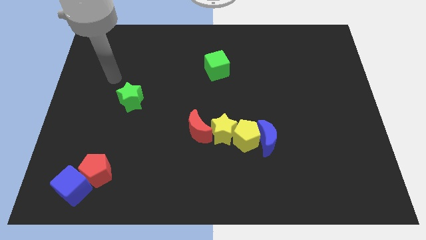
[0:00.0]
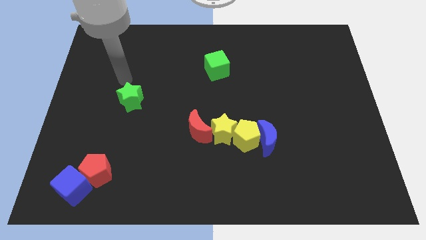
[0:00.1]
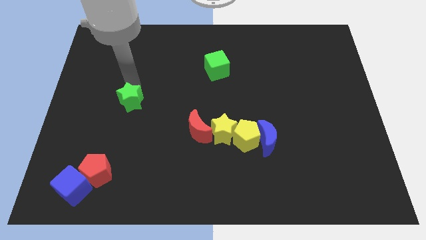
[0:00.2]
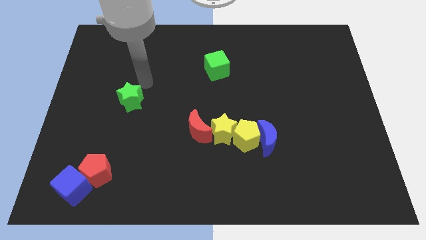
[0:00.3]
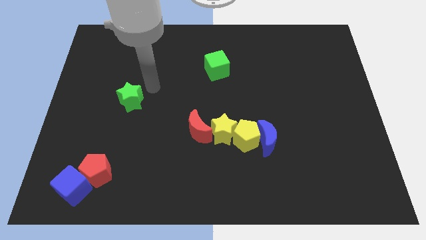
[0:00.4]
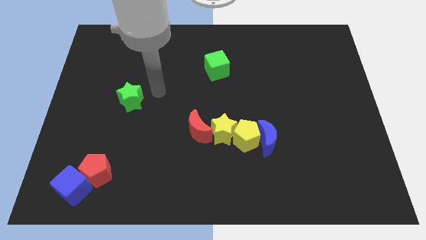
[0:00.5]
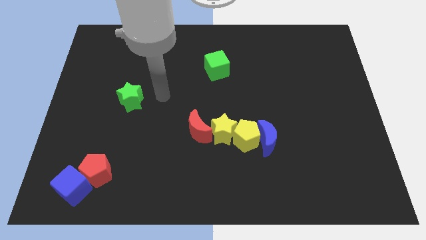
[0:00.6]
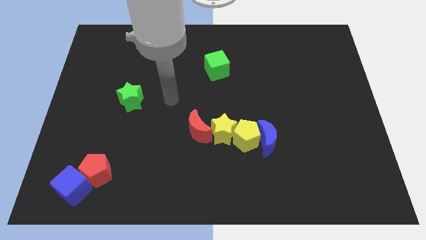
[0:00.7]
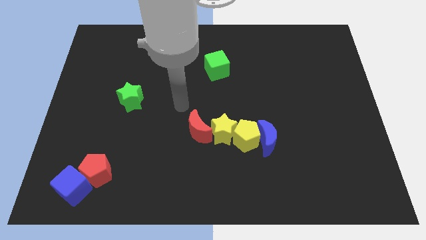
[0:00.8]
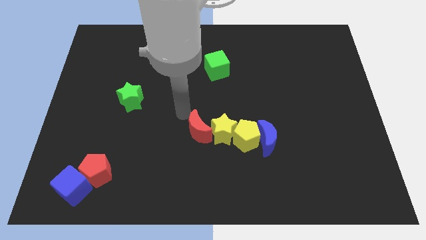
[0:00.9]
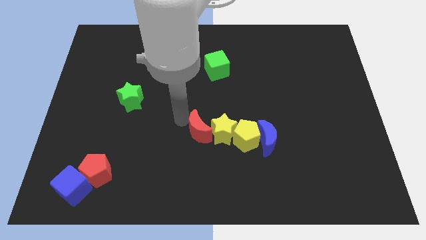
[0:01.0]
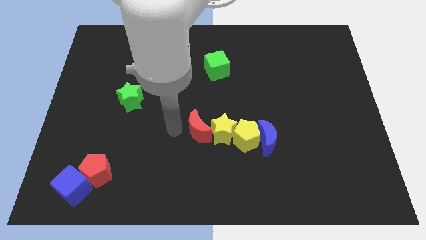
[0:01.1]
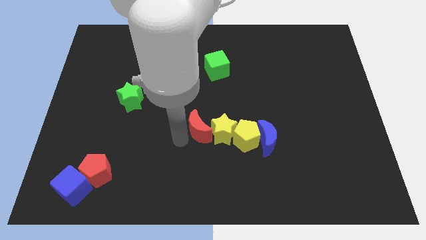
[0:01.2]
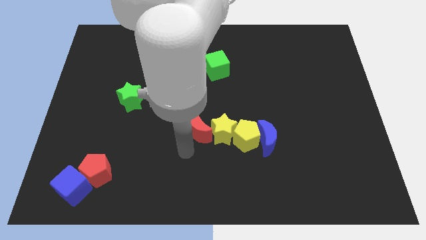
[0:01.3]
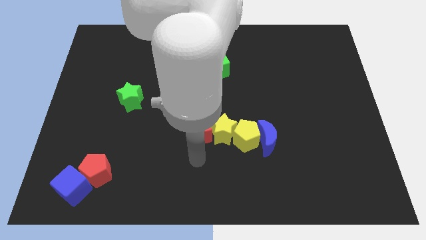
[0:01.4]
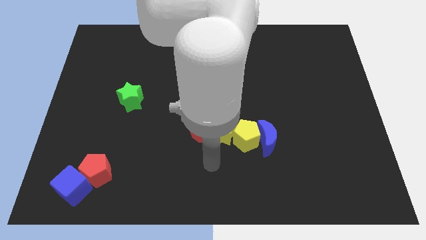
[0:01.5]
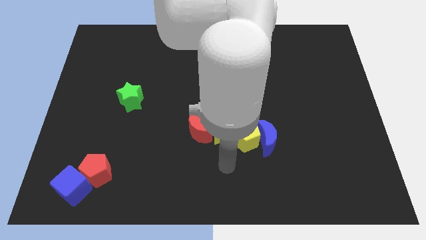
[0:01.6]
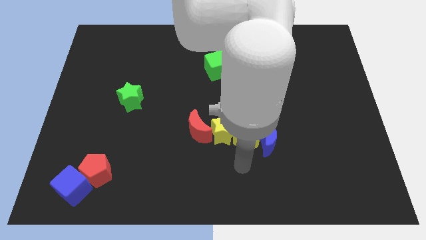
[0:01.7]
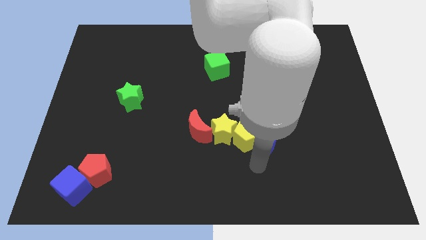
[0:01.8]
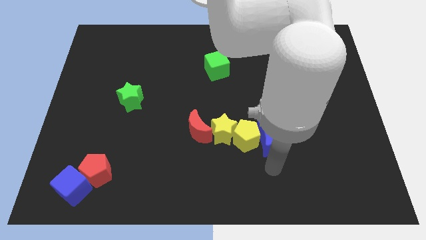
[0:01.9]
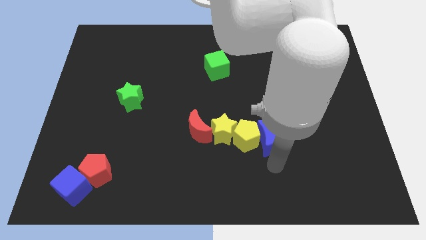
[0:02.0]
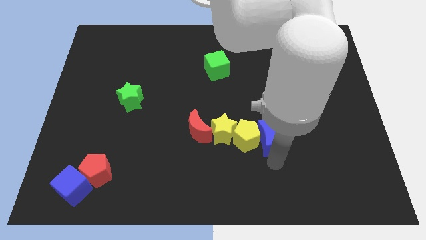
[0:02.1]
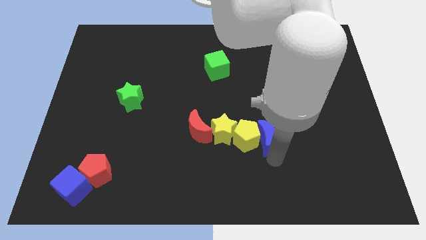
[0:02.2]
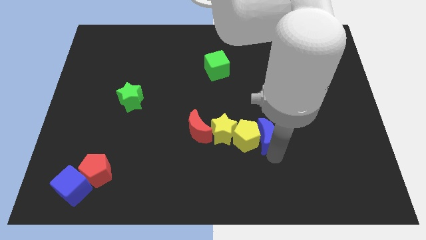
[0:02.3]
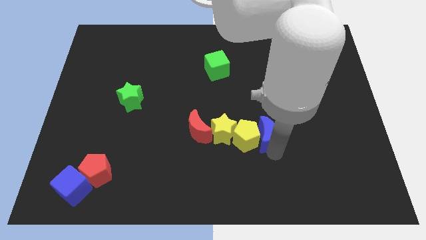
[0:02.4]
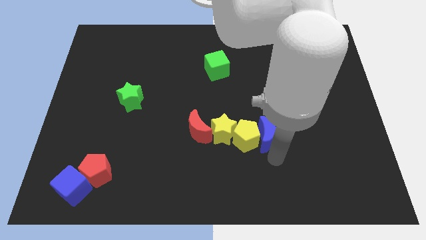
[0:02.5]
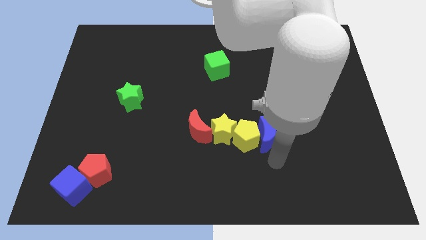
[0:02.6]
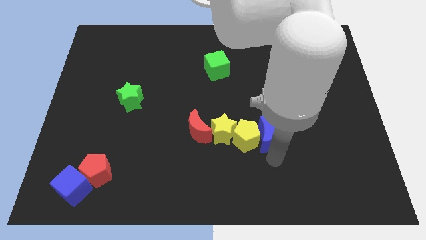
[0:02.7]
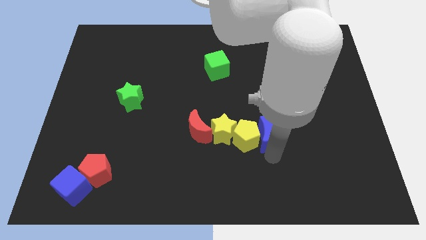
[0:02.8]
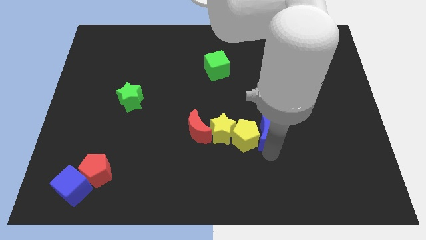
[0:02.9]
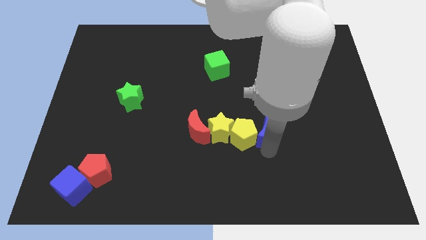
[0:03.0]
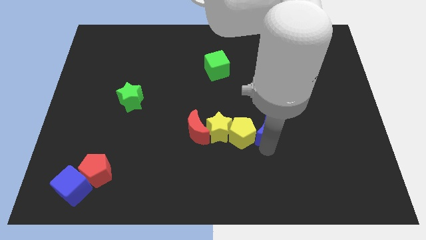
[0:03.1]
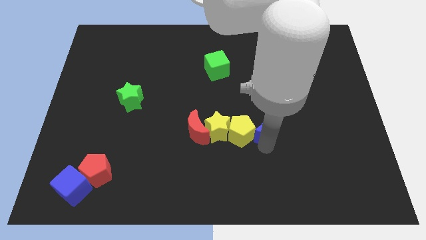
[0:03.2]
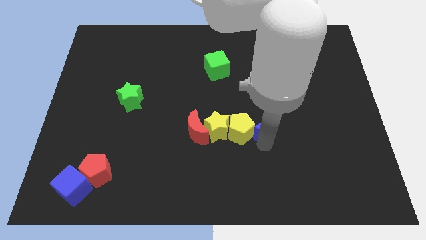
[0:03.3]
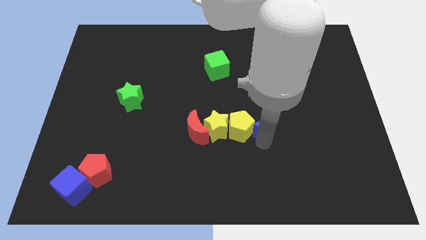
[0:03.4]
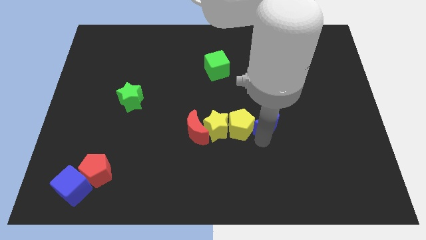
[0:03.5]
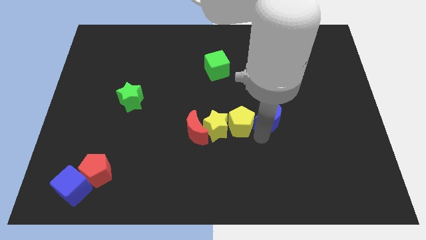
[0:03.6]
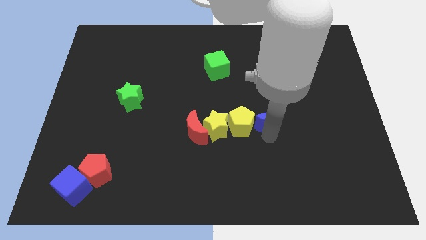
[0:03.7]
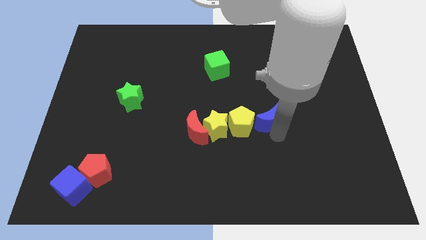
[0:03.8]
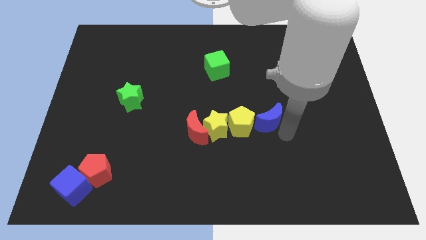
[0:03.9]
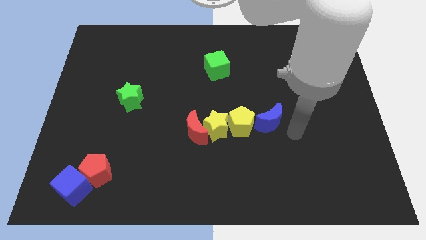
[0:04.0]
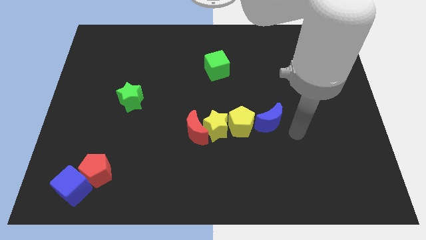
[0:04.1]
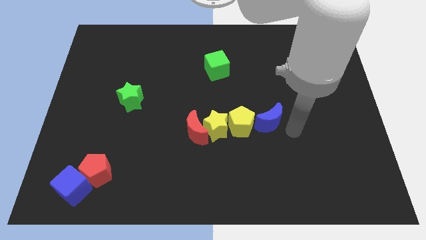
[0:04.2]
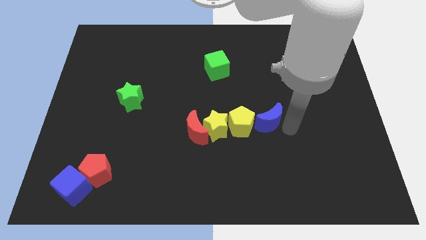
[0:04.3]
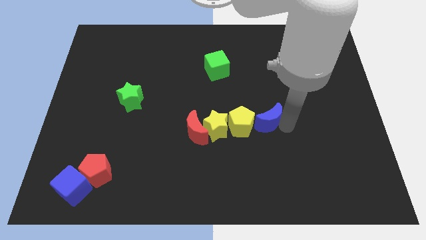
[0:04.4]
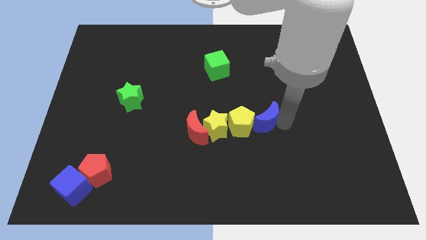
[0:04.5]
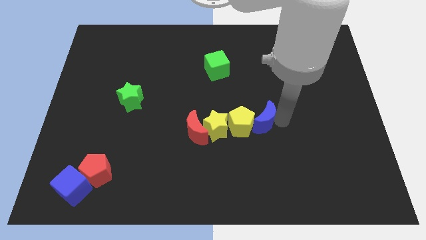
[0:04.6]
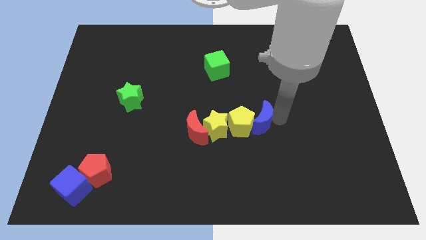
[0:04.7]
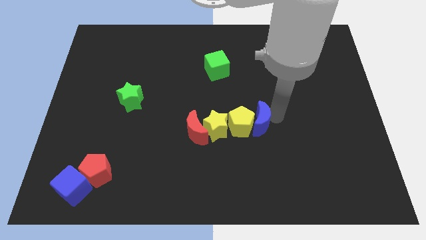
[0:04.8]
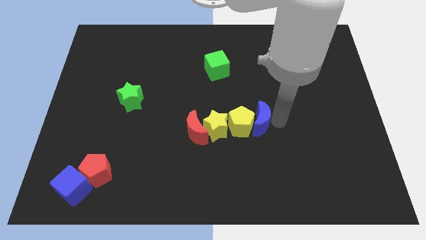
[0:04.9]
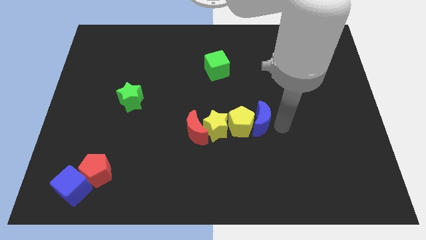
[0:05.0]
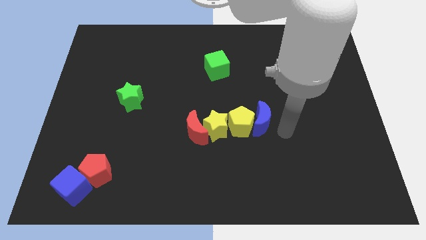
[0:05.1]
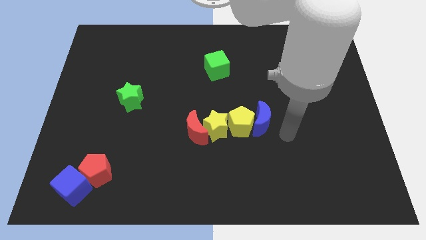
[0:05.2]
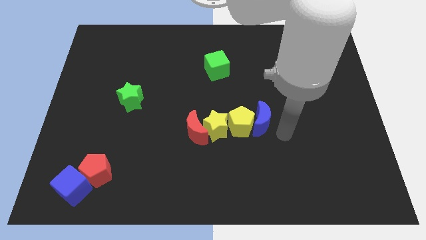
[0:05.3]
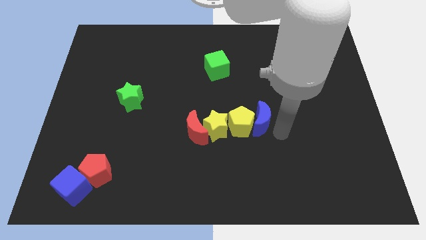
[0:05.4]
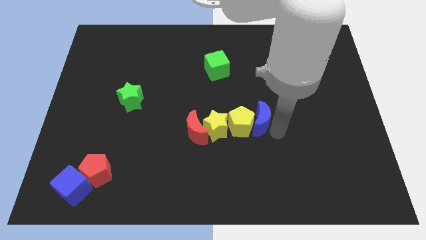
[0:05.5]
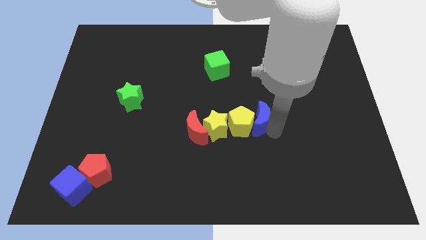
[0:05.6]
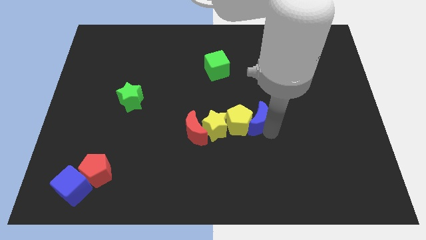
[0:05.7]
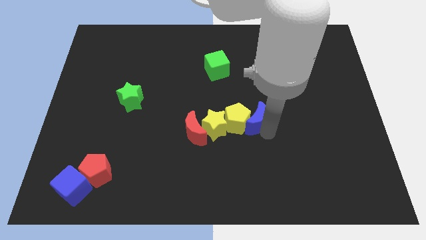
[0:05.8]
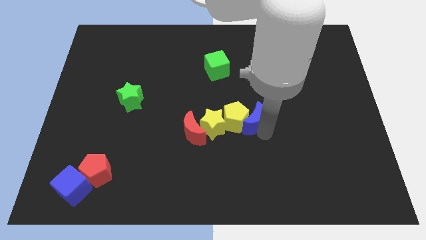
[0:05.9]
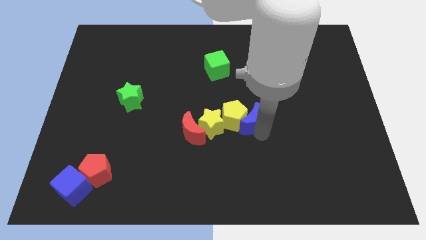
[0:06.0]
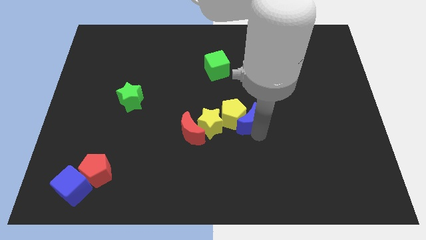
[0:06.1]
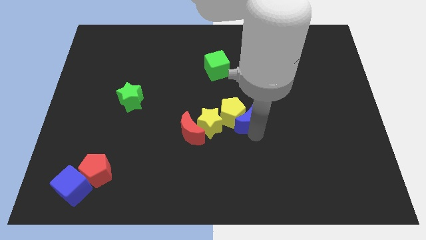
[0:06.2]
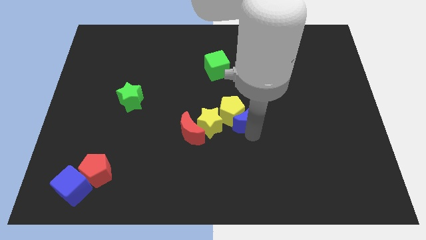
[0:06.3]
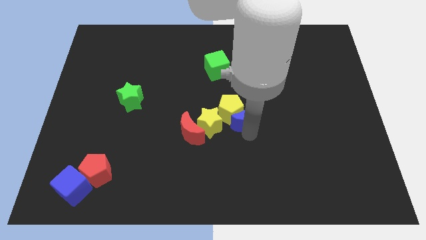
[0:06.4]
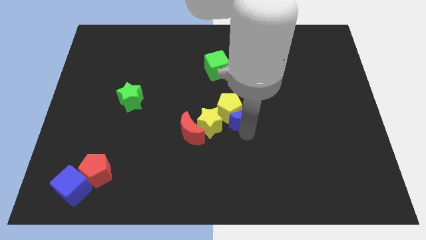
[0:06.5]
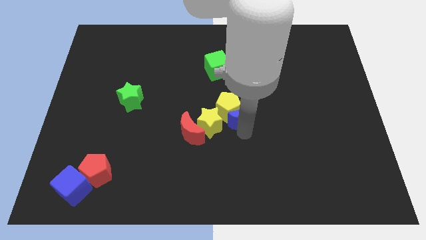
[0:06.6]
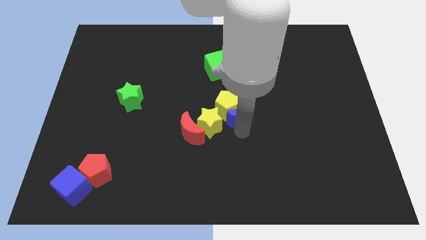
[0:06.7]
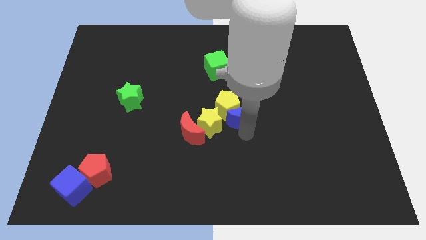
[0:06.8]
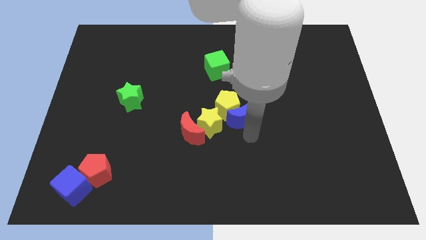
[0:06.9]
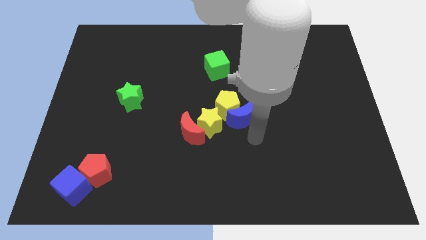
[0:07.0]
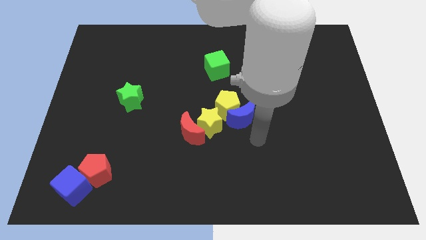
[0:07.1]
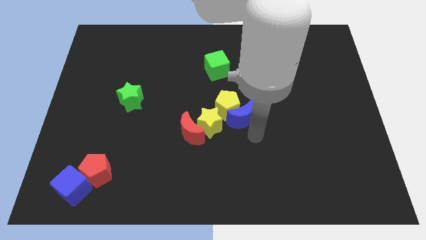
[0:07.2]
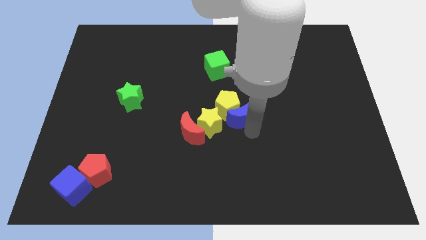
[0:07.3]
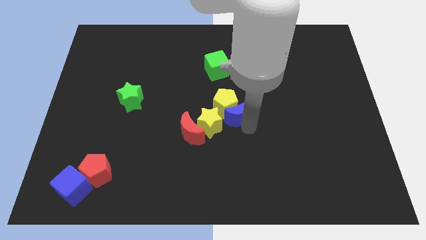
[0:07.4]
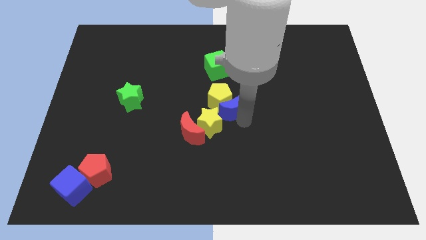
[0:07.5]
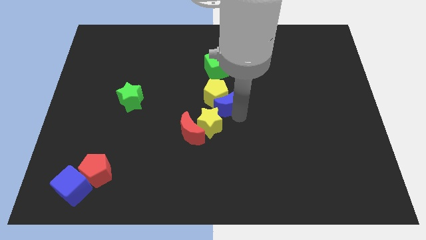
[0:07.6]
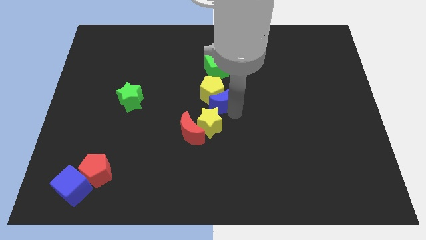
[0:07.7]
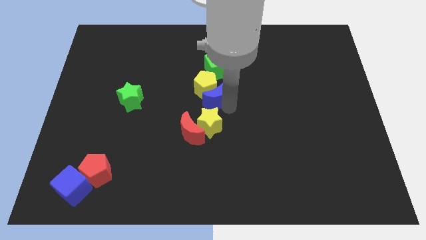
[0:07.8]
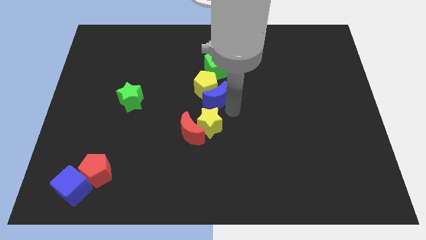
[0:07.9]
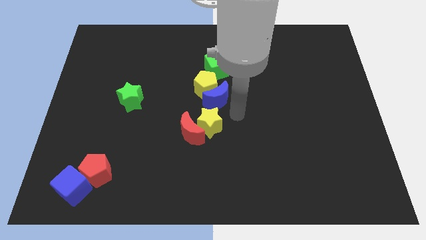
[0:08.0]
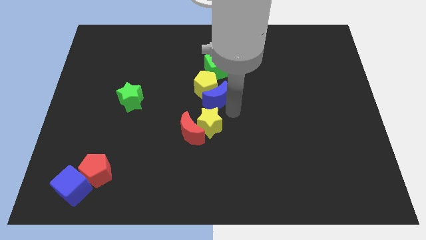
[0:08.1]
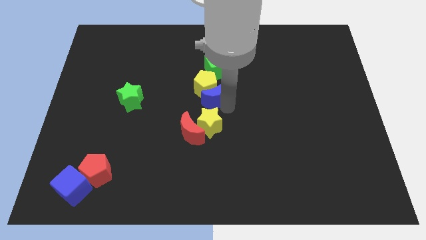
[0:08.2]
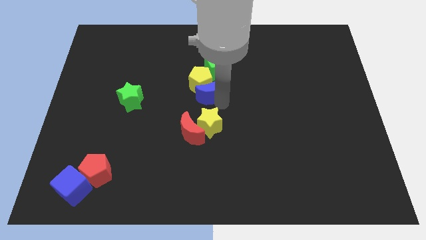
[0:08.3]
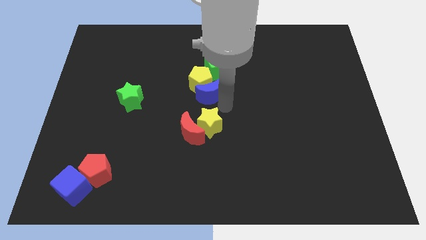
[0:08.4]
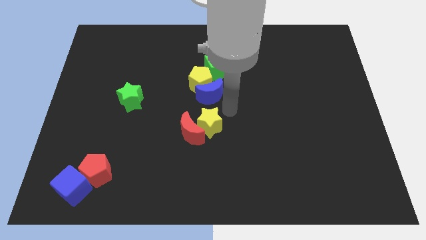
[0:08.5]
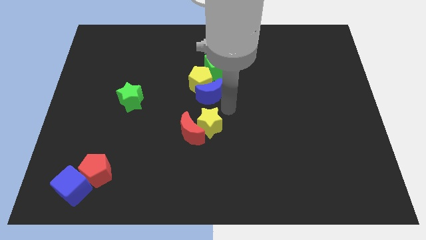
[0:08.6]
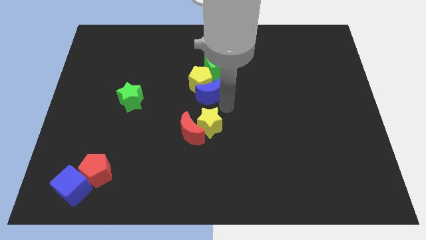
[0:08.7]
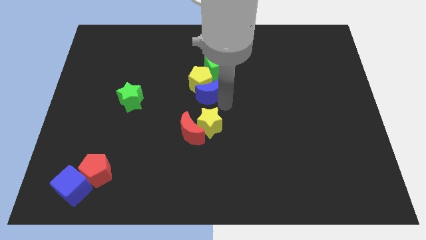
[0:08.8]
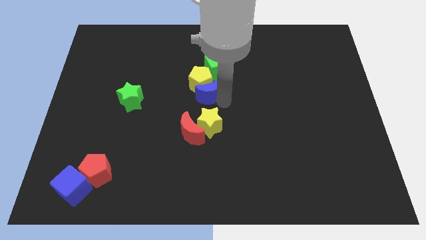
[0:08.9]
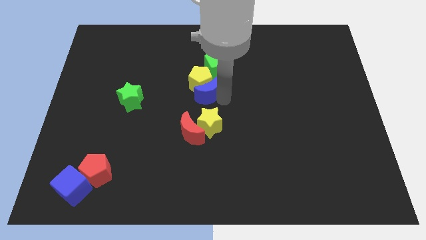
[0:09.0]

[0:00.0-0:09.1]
move the blue moon to the bottom left of the green cube
